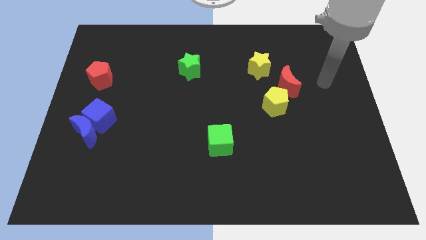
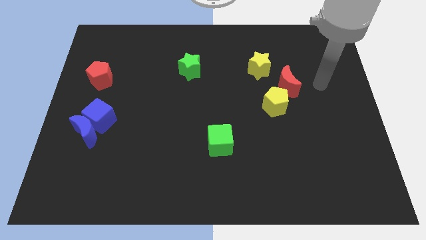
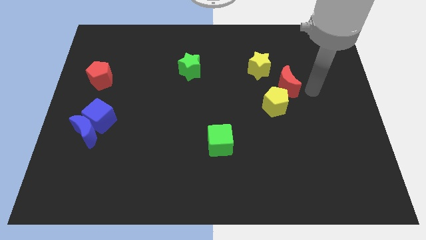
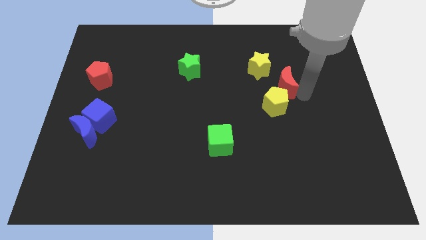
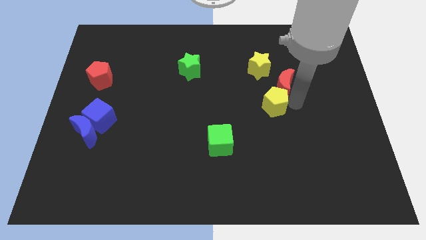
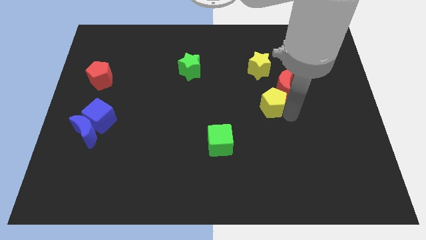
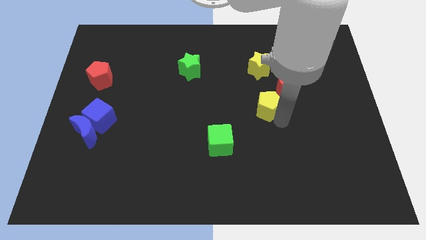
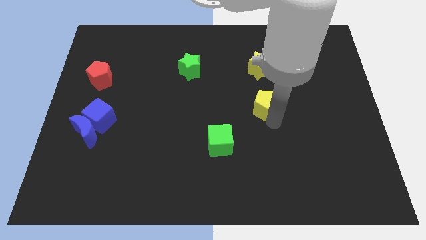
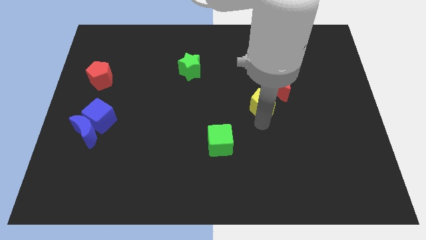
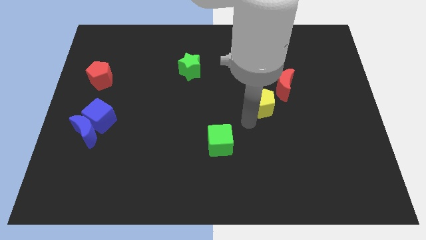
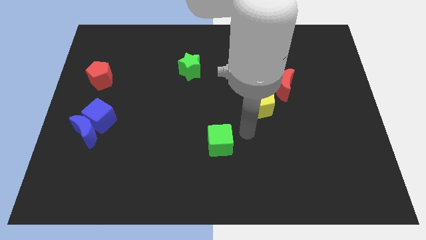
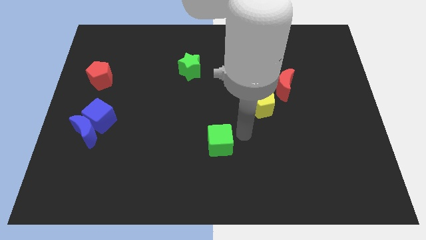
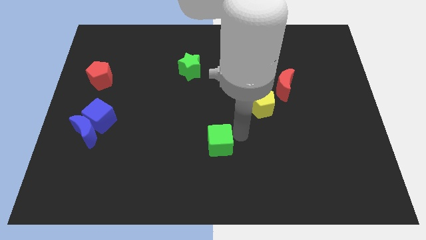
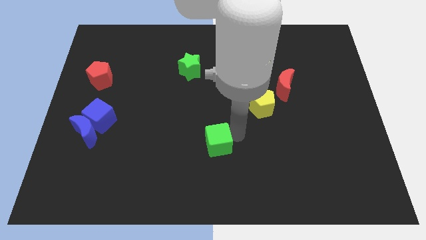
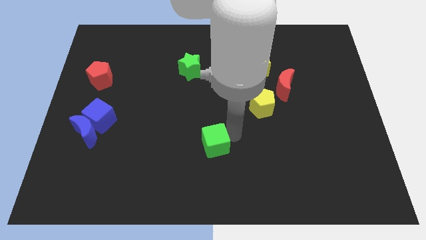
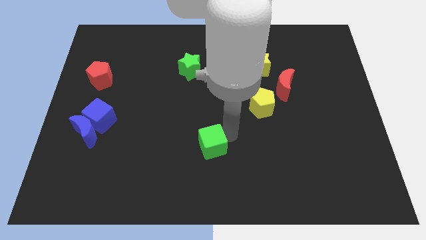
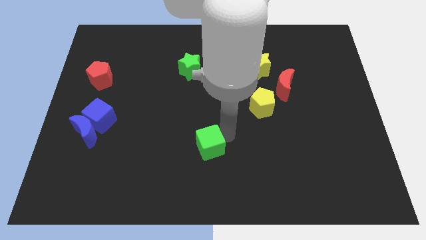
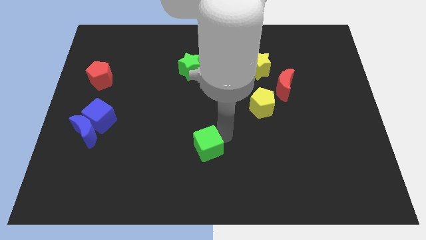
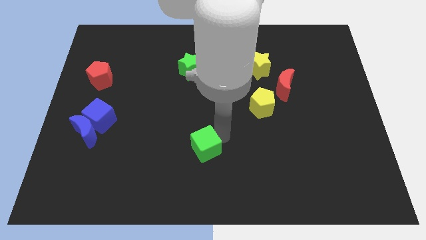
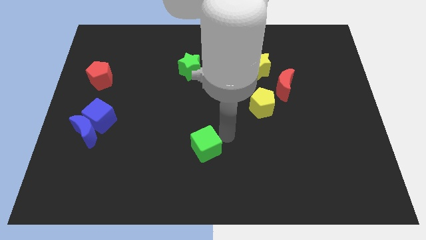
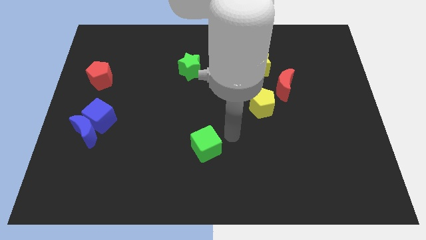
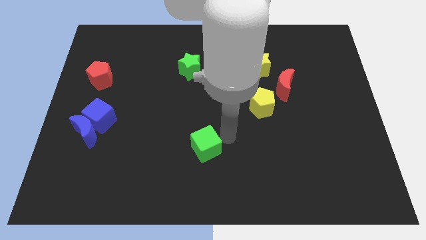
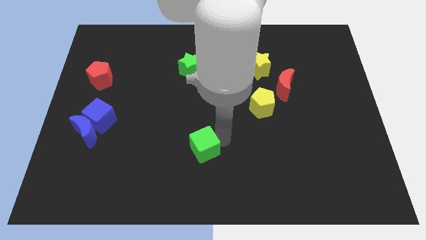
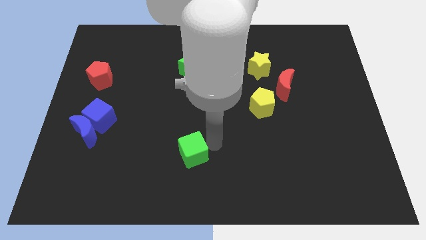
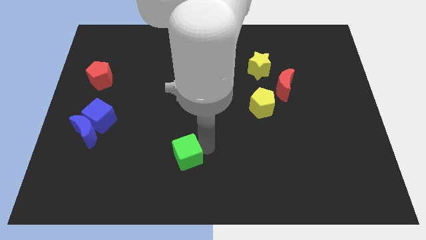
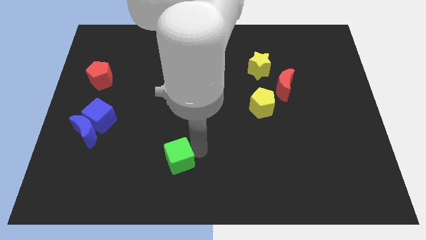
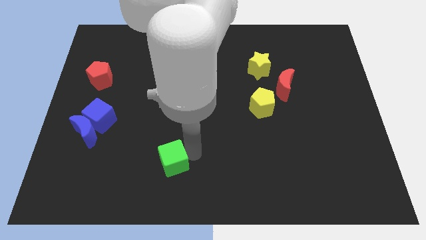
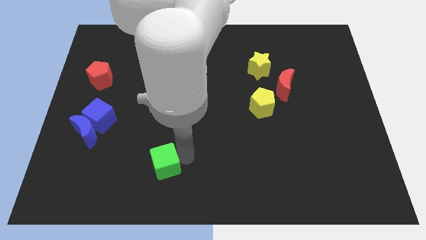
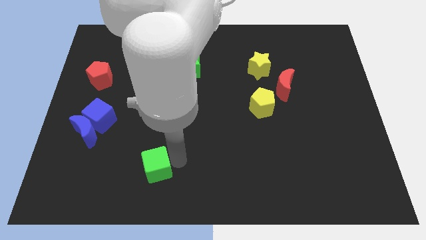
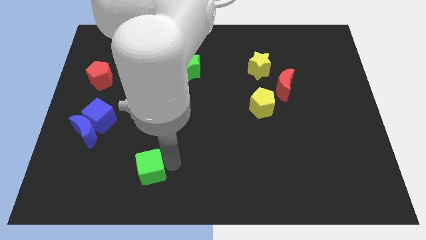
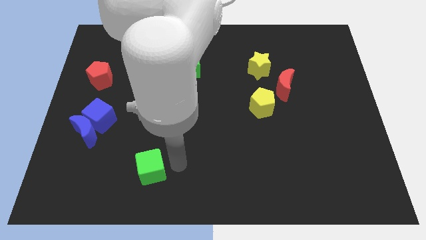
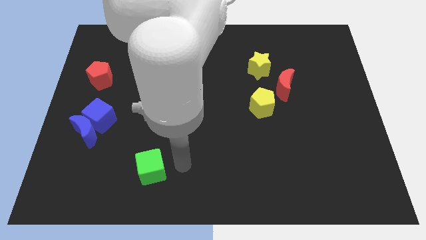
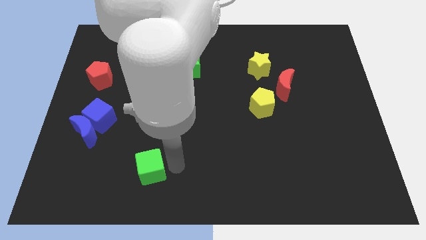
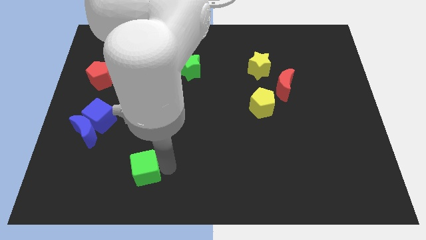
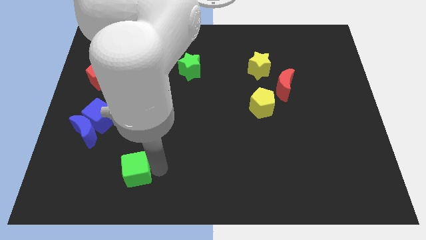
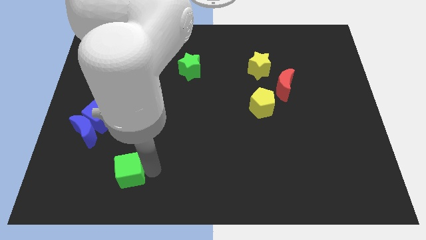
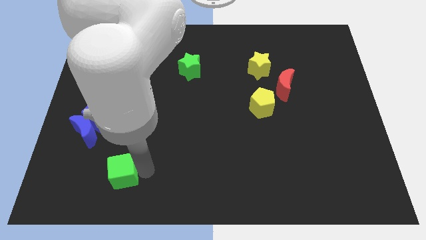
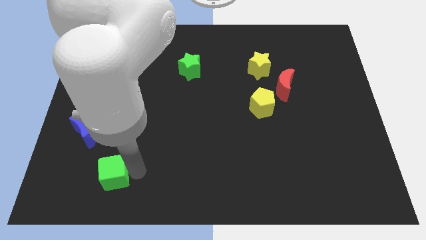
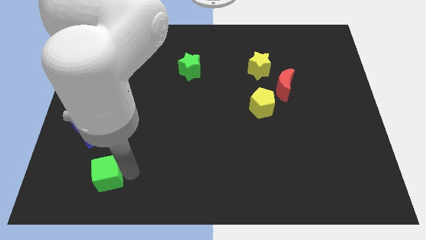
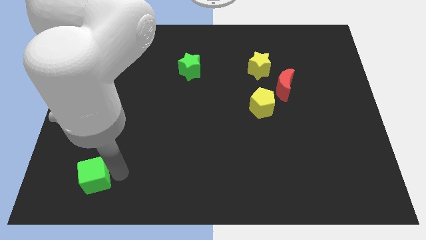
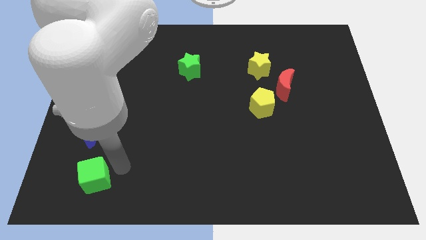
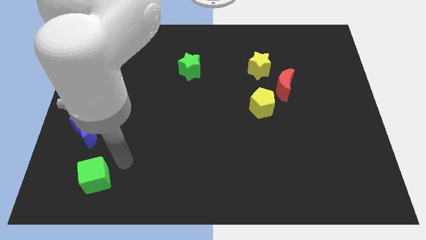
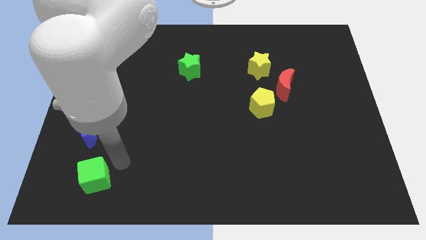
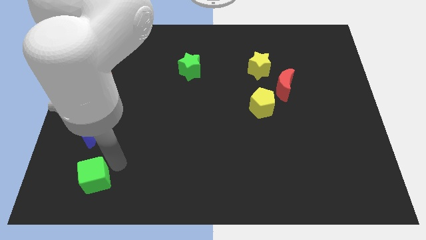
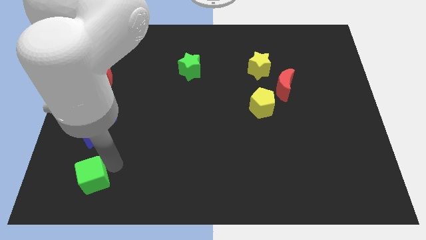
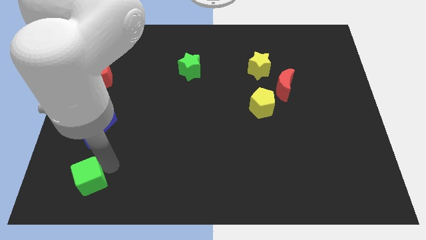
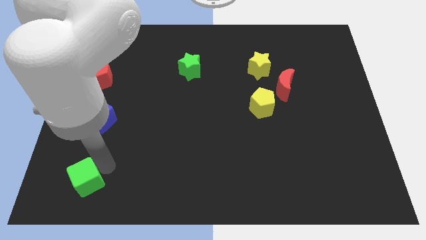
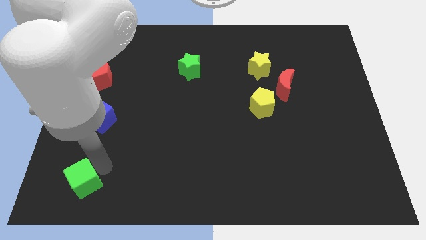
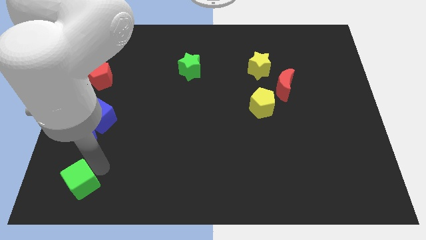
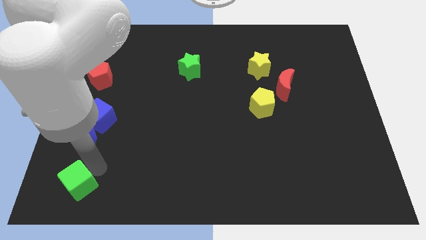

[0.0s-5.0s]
move the green cube to the lower left corner

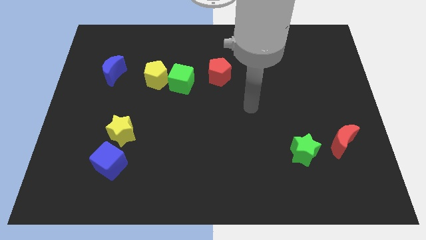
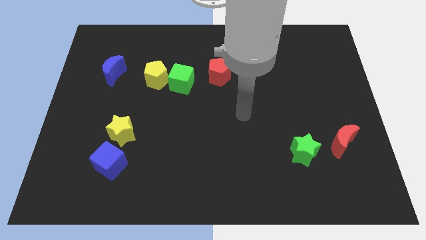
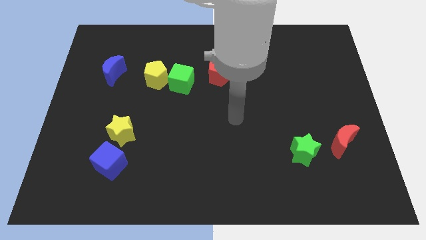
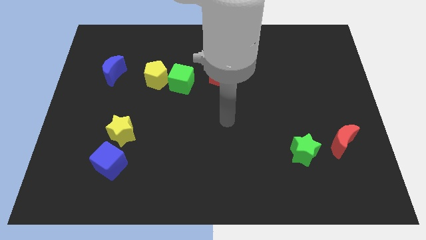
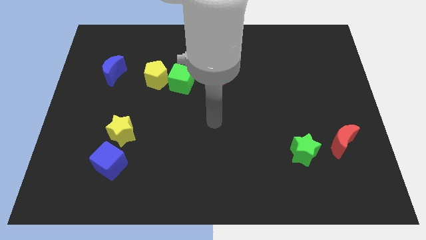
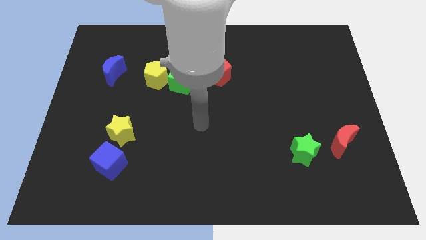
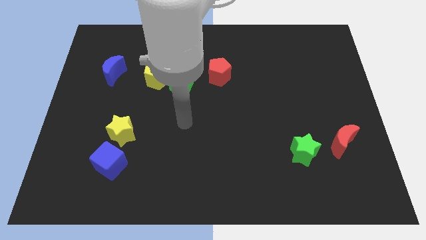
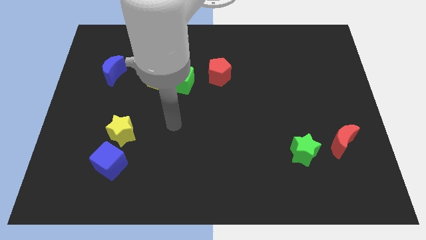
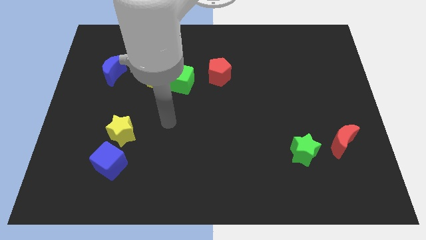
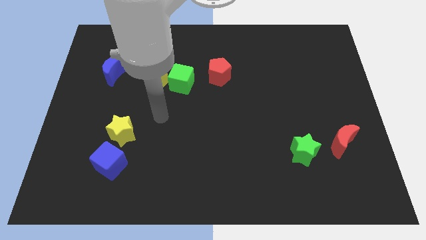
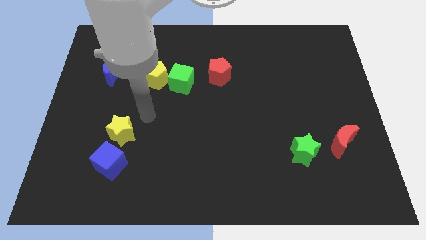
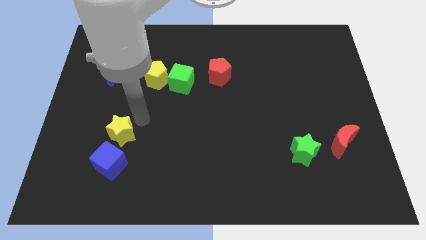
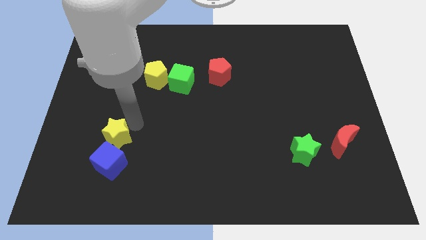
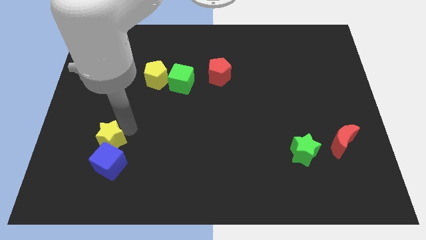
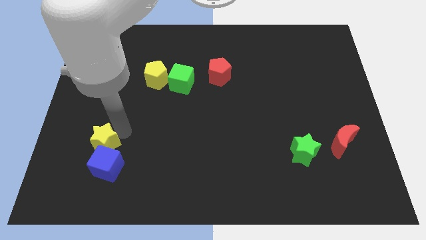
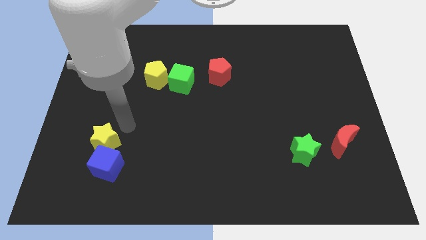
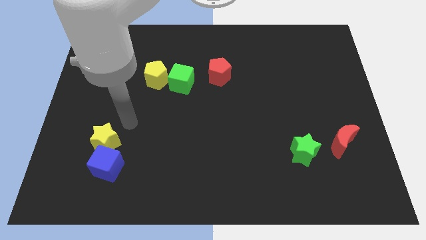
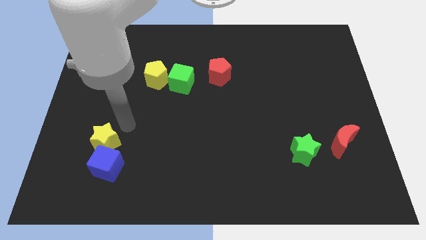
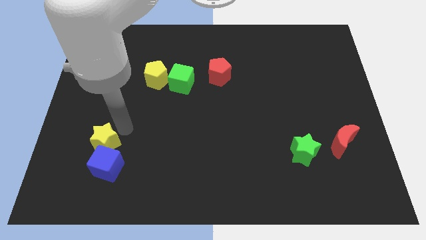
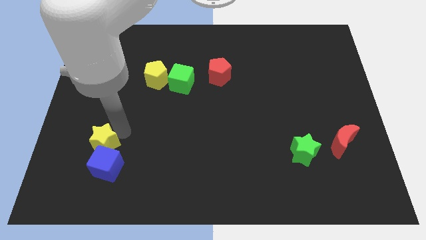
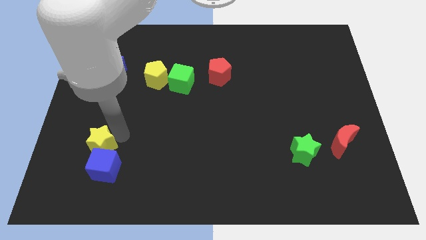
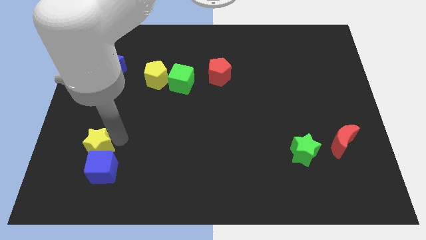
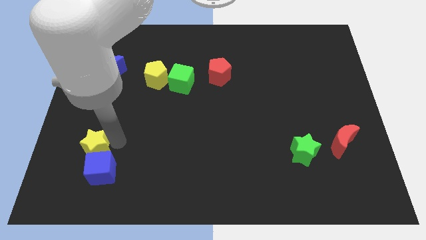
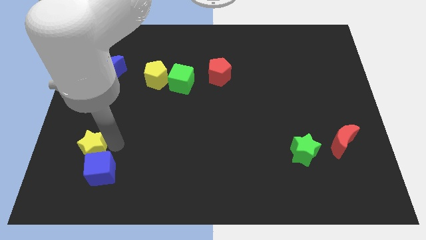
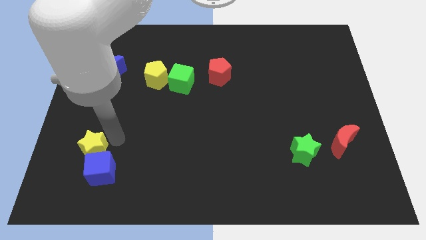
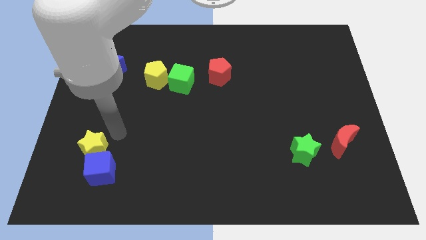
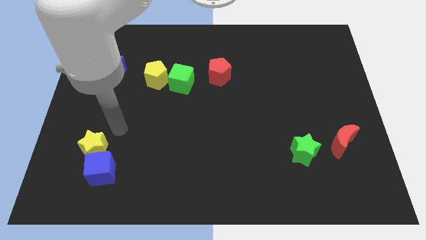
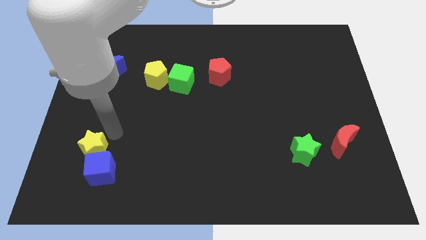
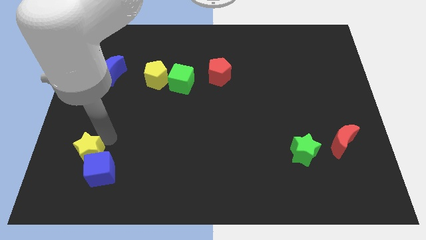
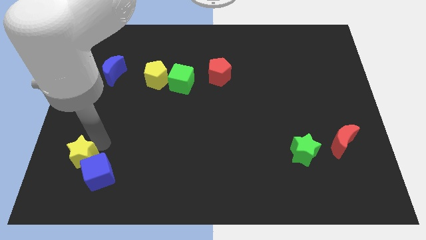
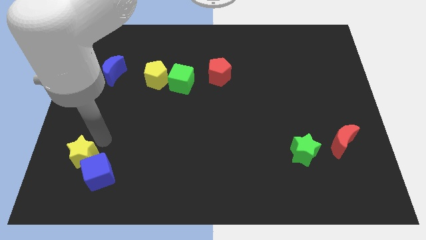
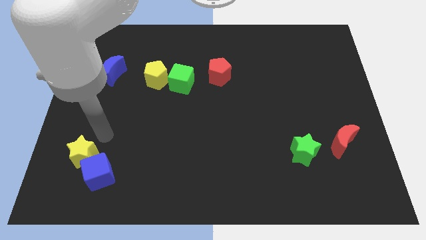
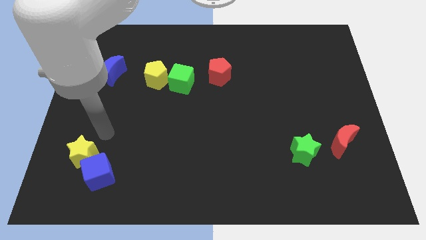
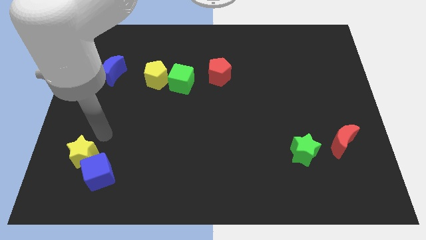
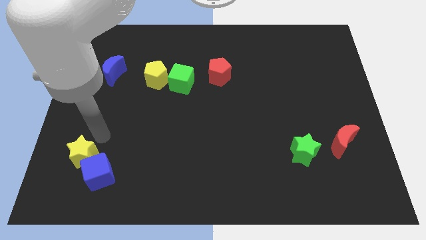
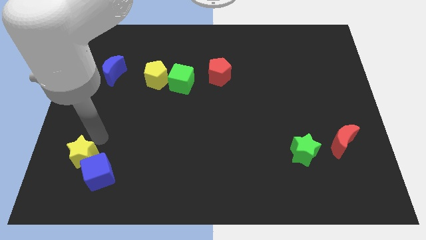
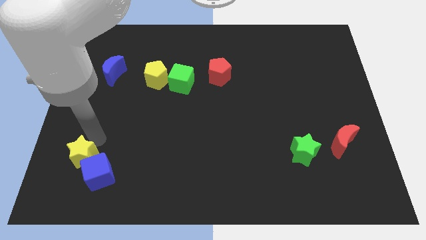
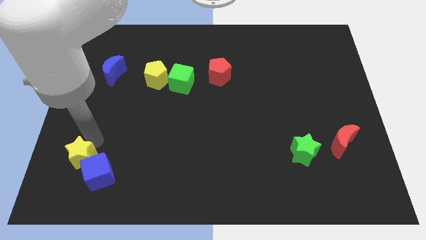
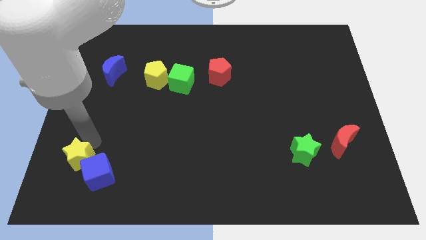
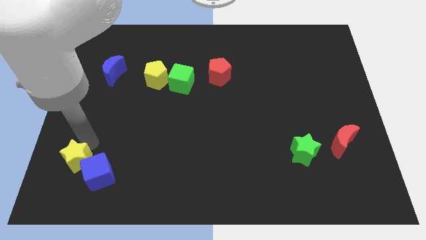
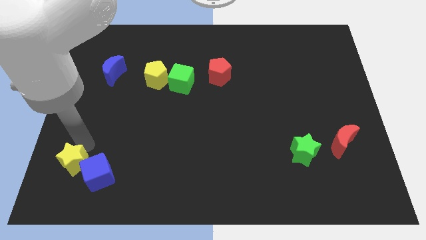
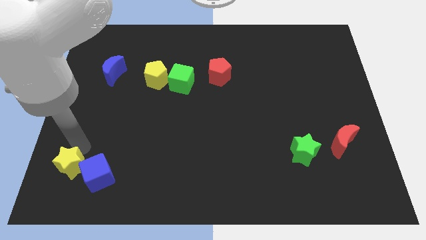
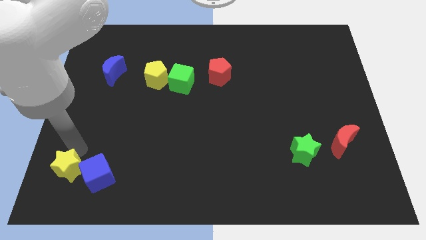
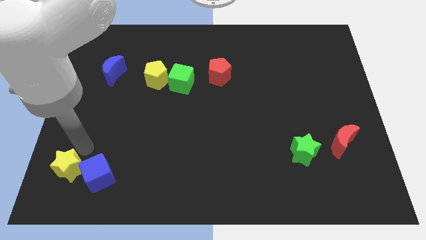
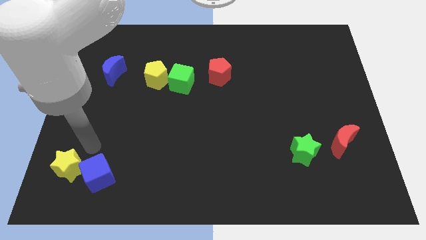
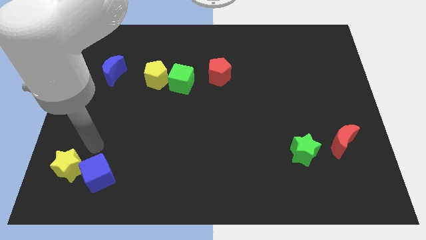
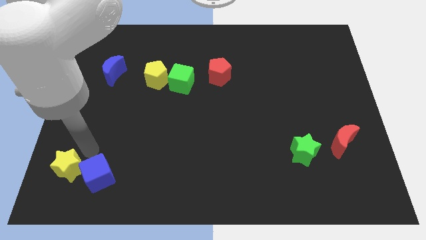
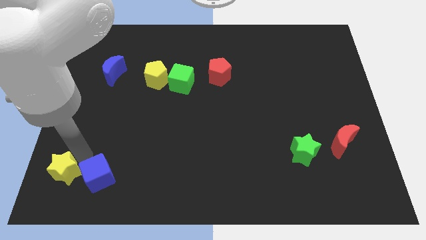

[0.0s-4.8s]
move the yellow star to the bottom left of the board
